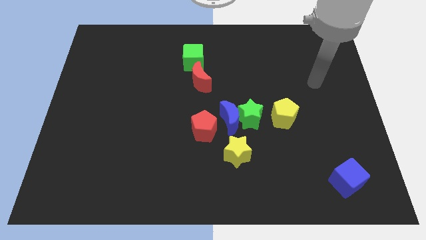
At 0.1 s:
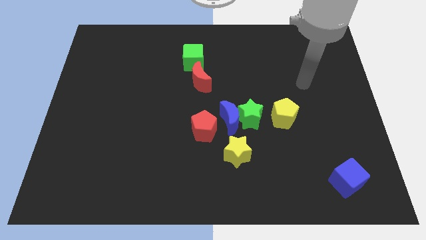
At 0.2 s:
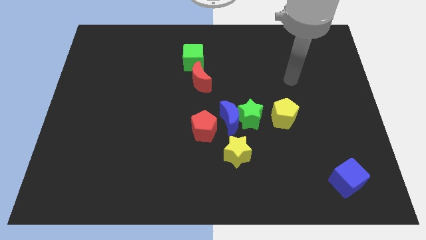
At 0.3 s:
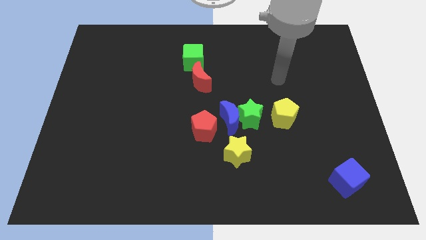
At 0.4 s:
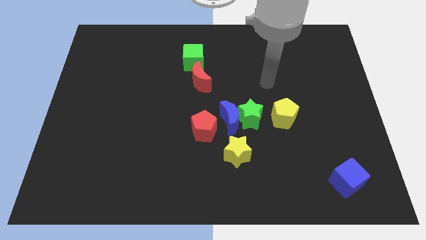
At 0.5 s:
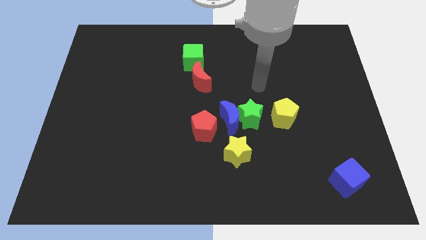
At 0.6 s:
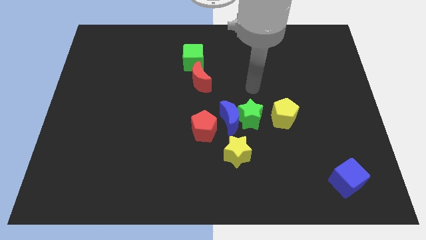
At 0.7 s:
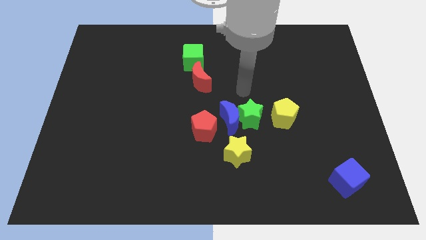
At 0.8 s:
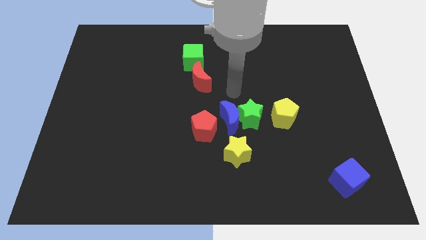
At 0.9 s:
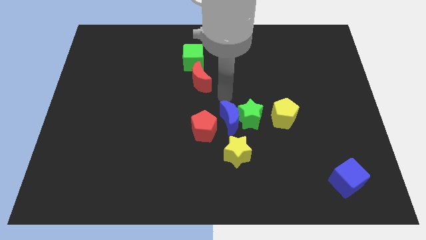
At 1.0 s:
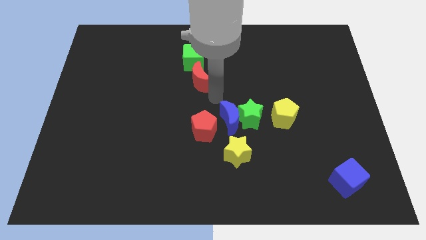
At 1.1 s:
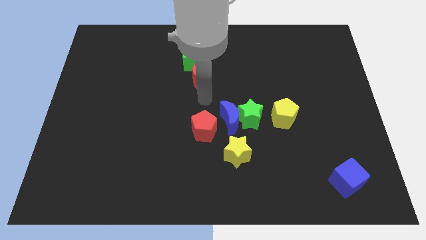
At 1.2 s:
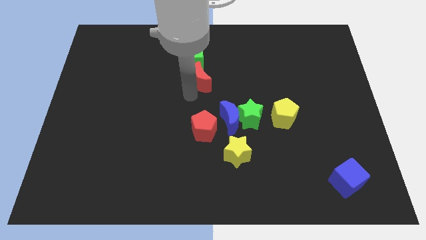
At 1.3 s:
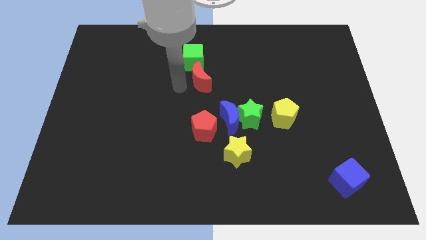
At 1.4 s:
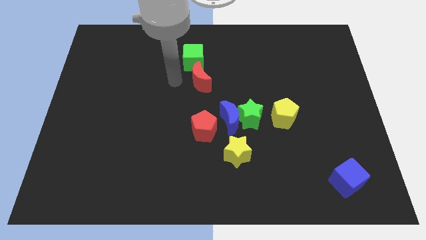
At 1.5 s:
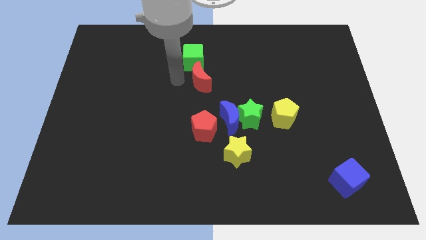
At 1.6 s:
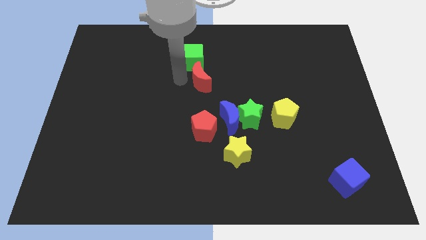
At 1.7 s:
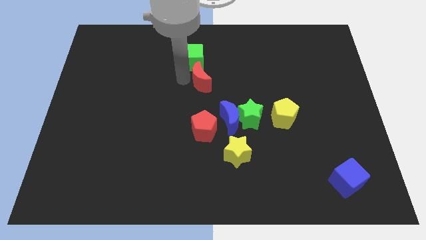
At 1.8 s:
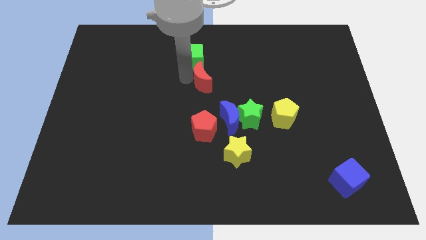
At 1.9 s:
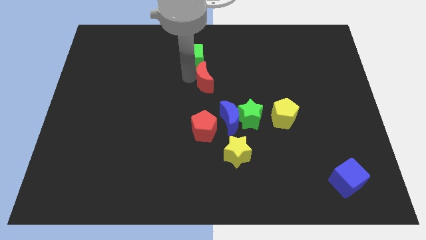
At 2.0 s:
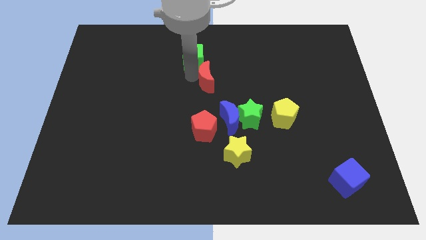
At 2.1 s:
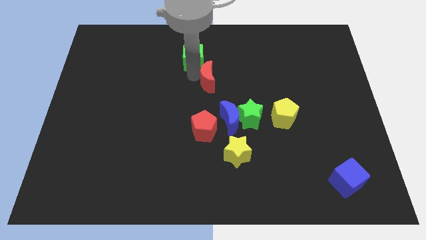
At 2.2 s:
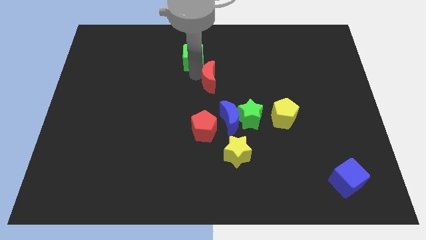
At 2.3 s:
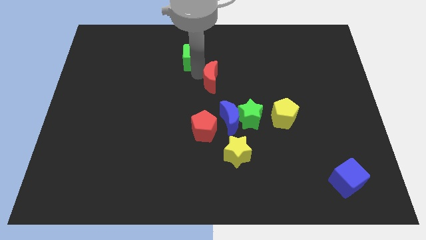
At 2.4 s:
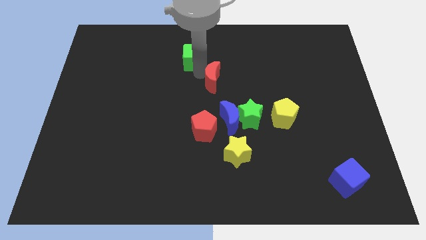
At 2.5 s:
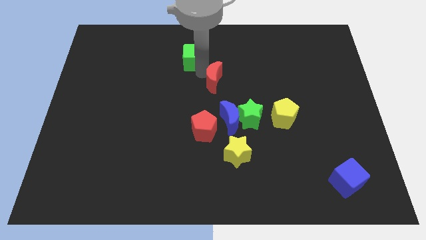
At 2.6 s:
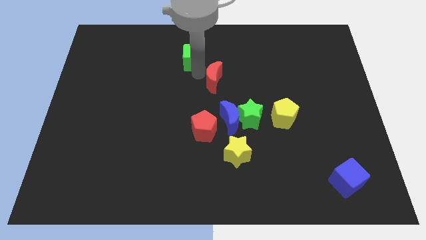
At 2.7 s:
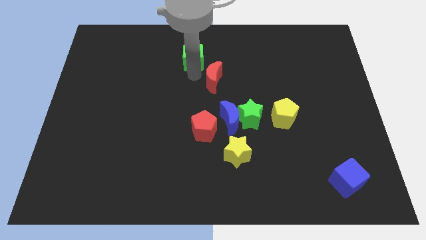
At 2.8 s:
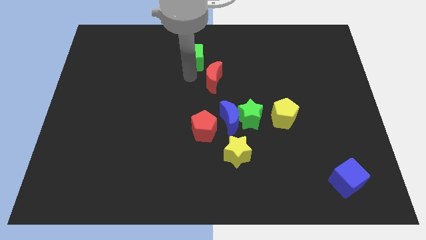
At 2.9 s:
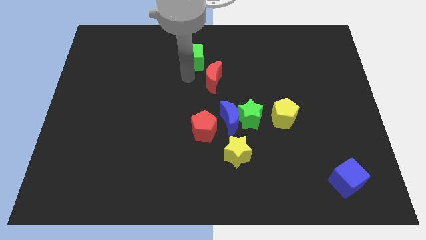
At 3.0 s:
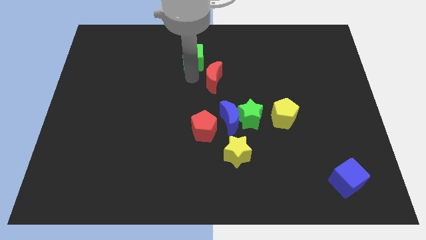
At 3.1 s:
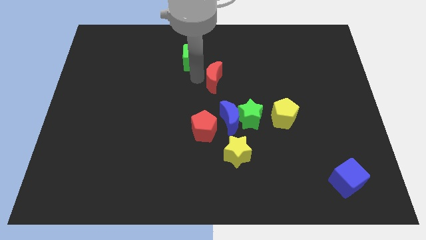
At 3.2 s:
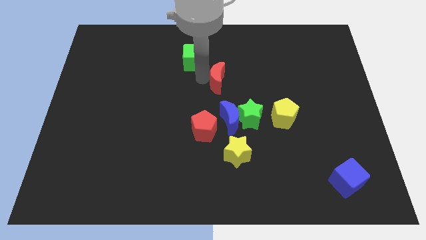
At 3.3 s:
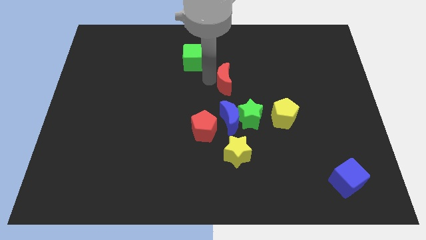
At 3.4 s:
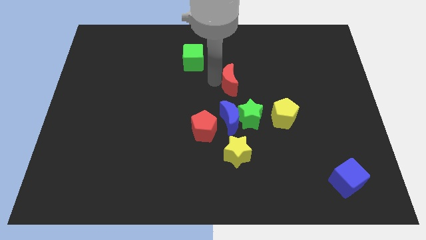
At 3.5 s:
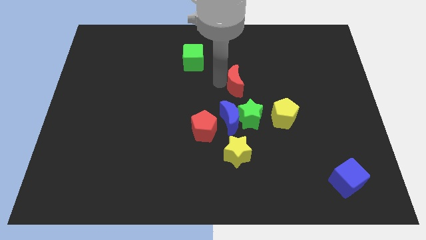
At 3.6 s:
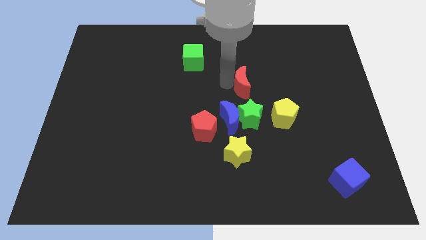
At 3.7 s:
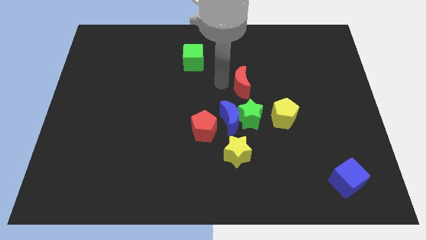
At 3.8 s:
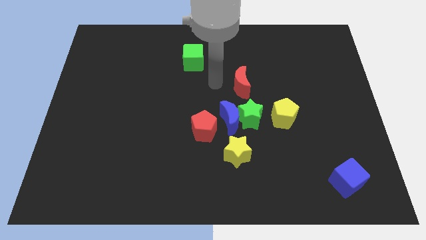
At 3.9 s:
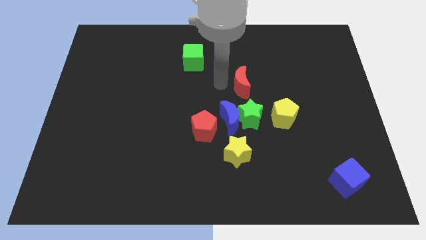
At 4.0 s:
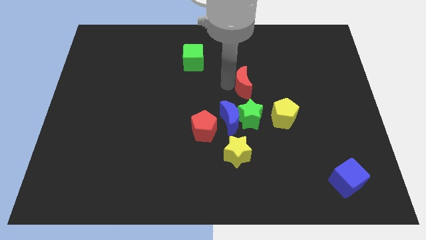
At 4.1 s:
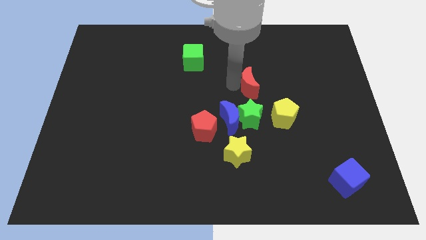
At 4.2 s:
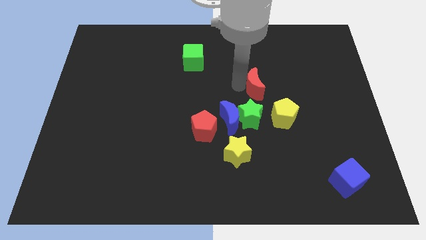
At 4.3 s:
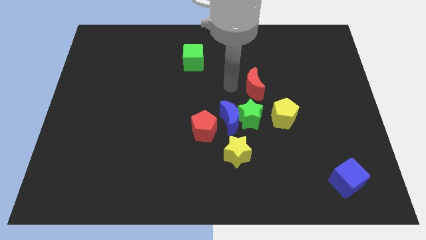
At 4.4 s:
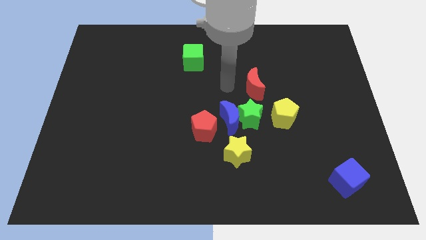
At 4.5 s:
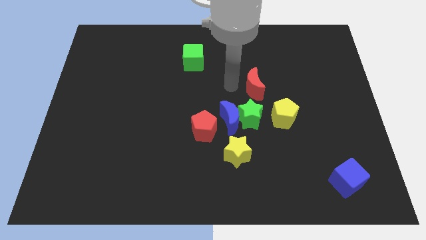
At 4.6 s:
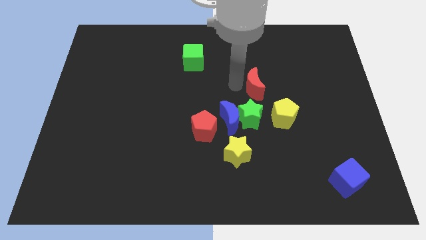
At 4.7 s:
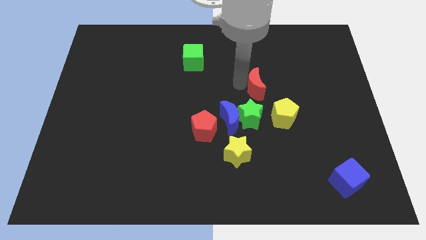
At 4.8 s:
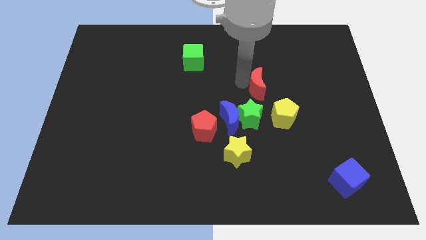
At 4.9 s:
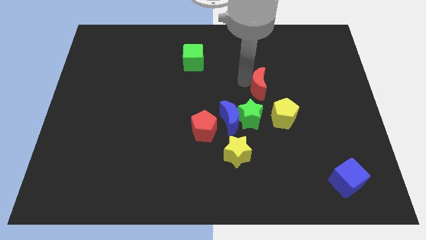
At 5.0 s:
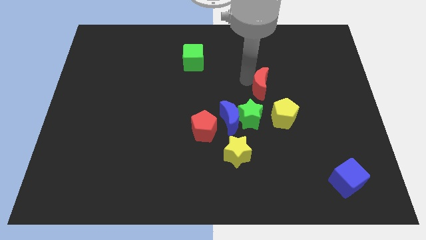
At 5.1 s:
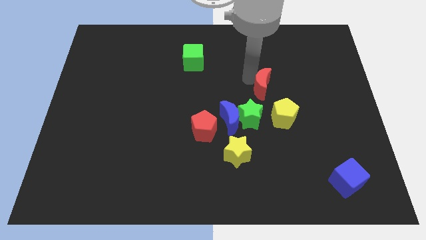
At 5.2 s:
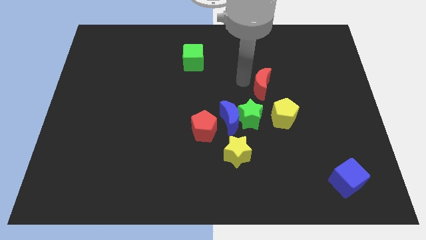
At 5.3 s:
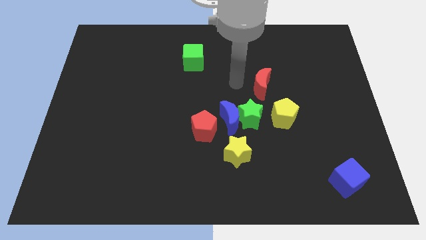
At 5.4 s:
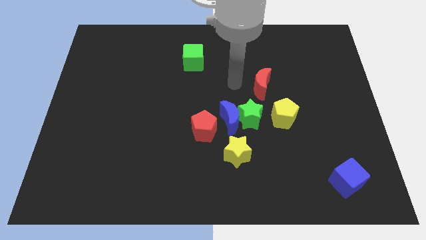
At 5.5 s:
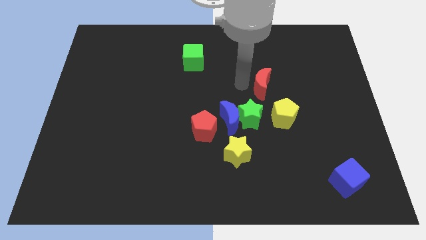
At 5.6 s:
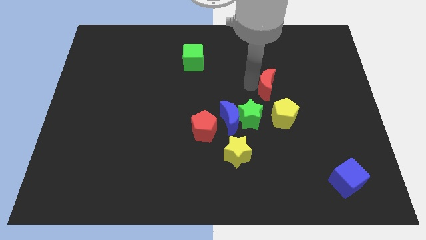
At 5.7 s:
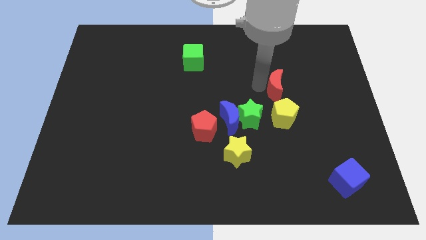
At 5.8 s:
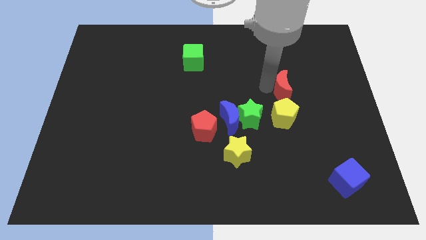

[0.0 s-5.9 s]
push the red moon to the right

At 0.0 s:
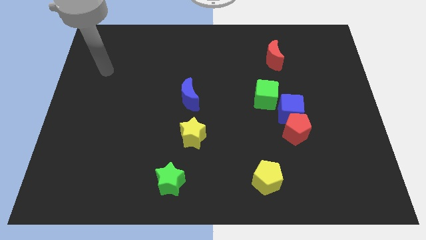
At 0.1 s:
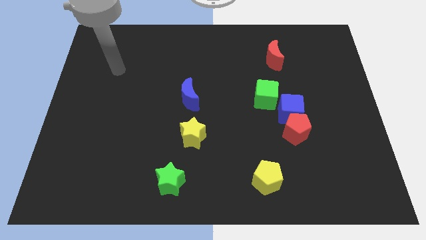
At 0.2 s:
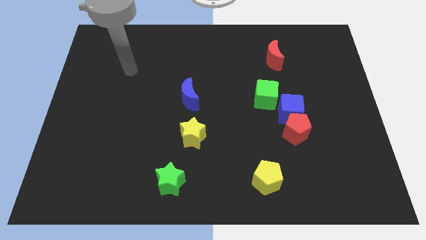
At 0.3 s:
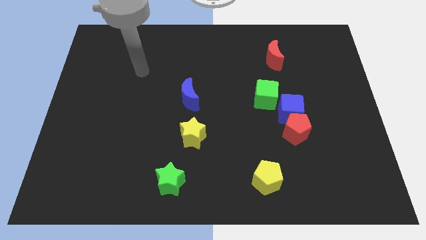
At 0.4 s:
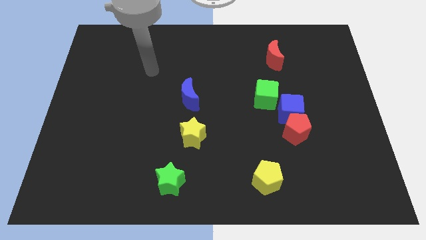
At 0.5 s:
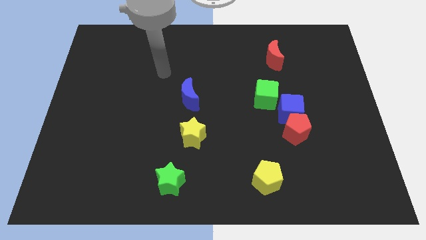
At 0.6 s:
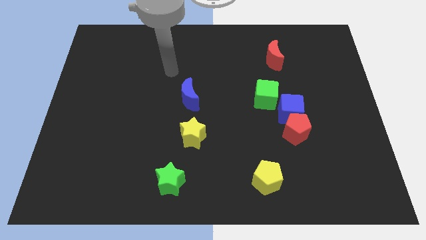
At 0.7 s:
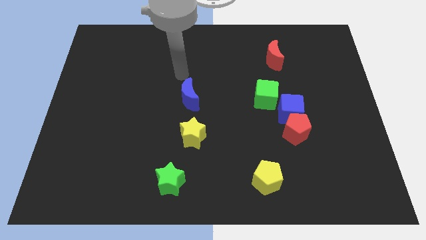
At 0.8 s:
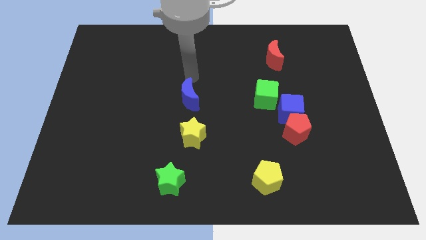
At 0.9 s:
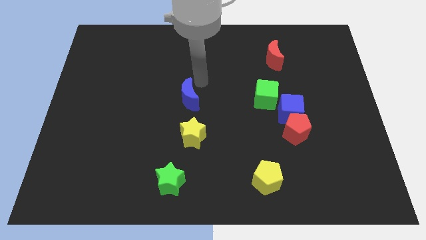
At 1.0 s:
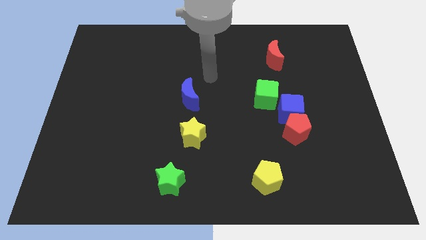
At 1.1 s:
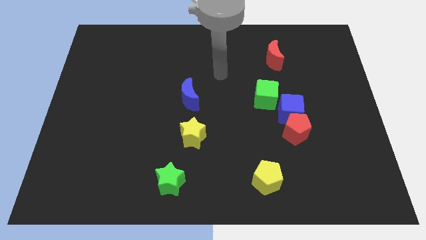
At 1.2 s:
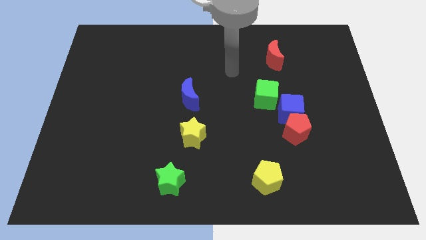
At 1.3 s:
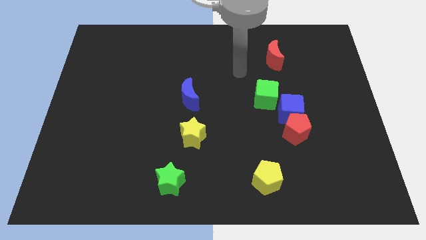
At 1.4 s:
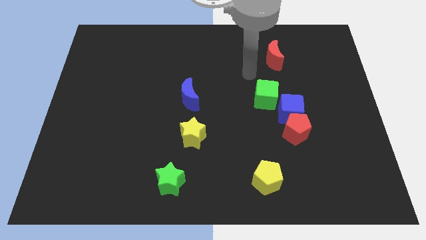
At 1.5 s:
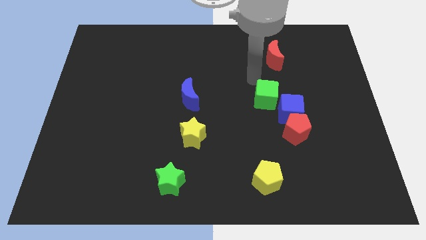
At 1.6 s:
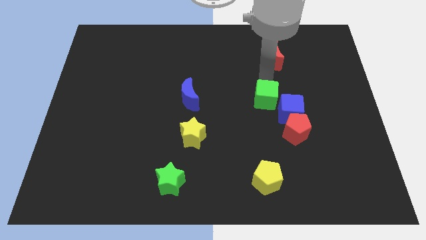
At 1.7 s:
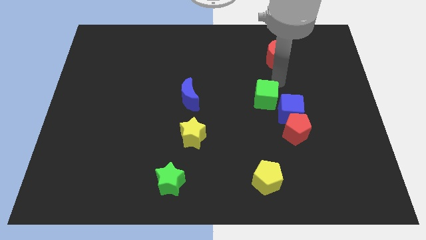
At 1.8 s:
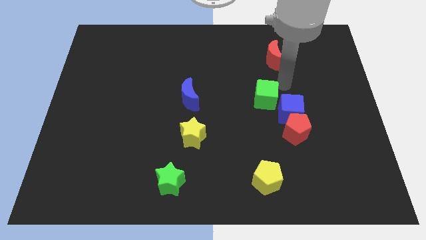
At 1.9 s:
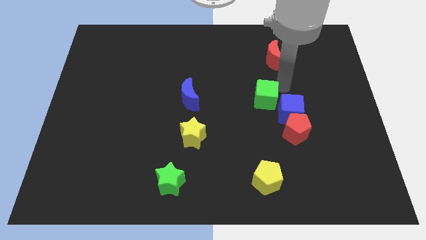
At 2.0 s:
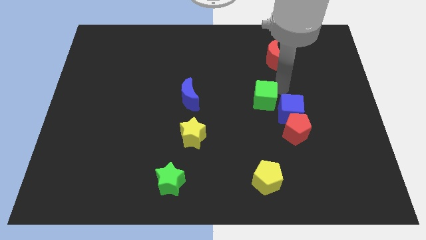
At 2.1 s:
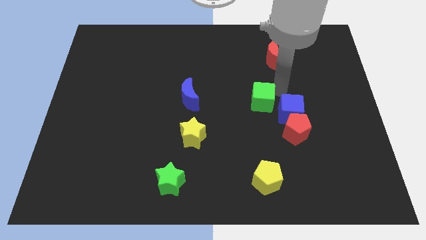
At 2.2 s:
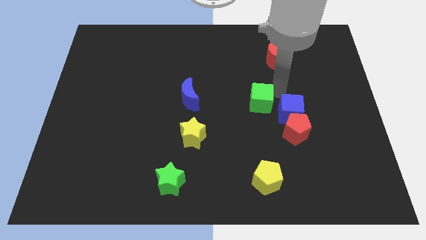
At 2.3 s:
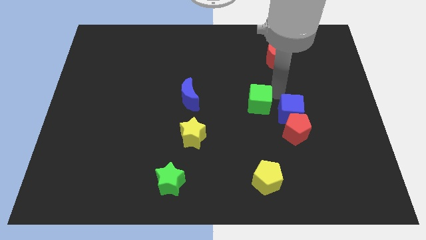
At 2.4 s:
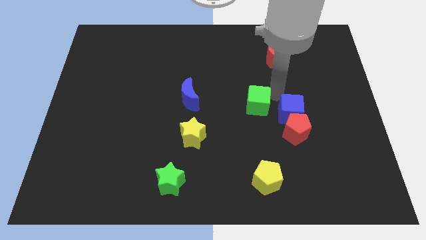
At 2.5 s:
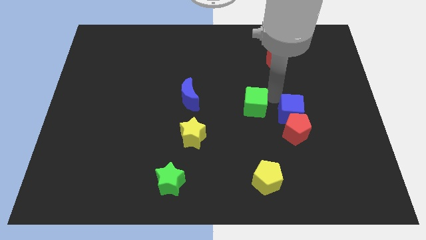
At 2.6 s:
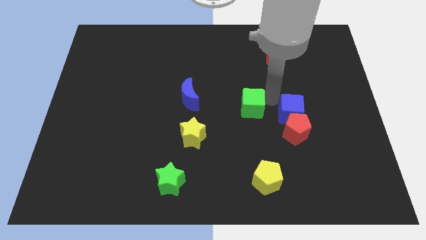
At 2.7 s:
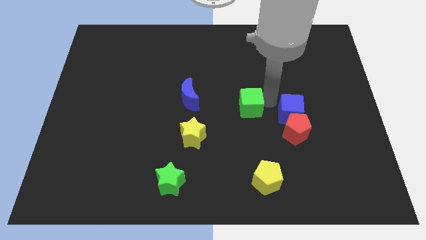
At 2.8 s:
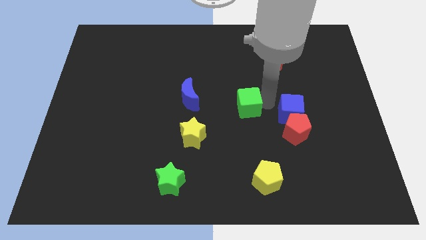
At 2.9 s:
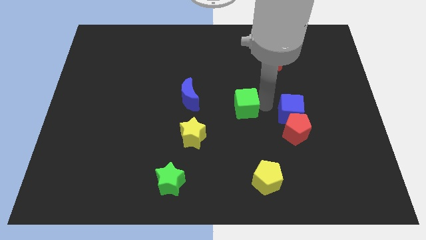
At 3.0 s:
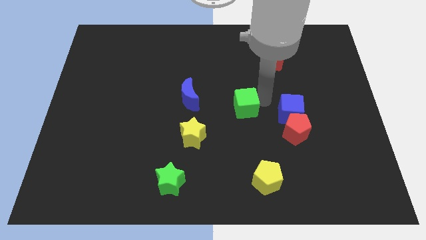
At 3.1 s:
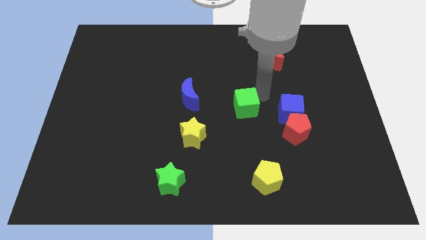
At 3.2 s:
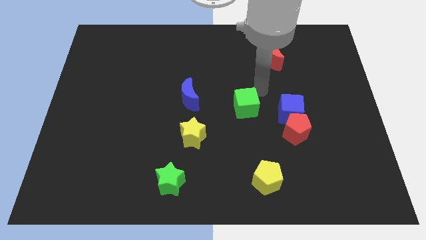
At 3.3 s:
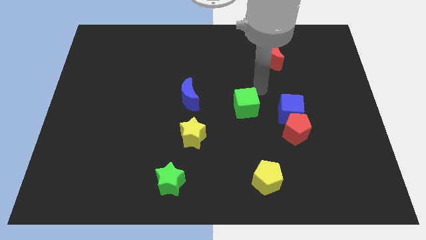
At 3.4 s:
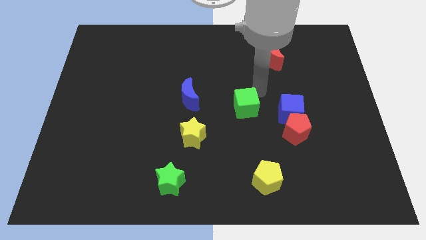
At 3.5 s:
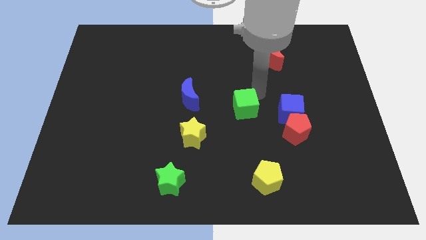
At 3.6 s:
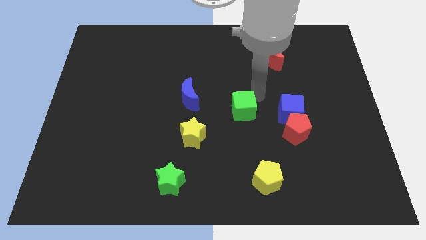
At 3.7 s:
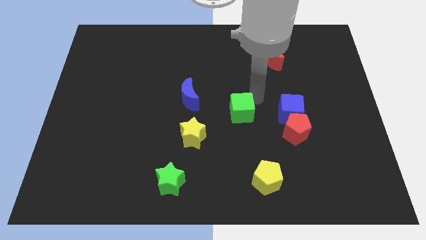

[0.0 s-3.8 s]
push the green cube somewhat diagonally downwards and to the left
